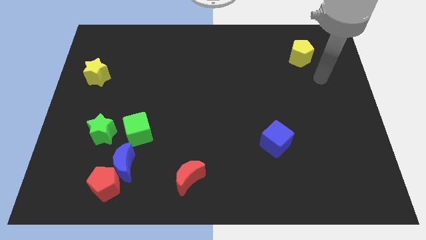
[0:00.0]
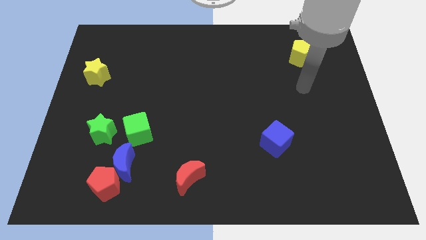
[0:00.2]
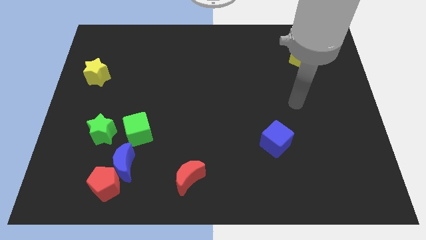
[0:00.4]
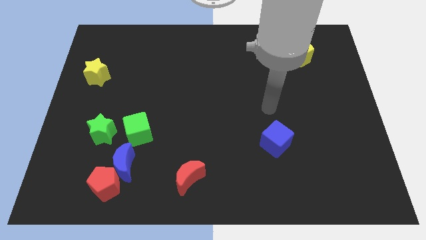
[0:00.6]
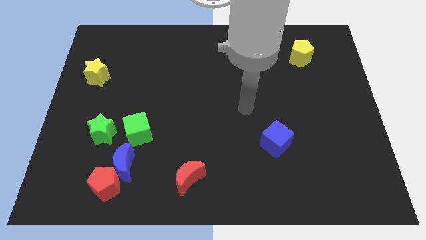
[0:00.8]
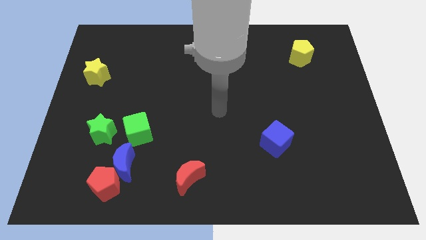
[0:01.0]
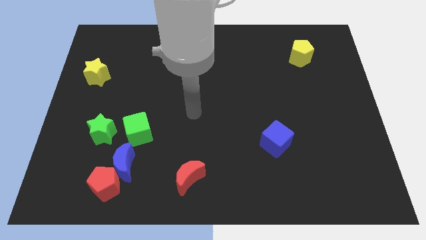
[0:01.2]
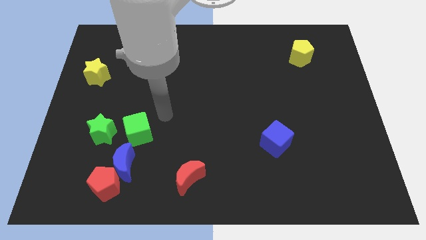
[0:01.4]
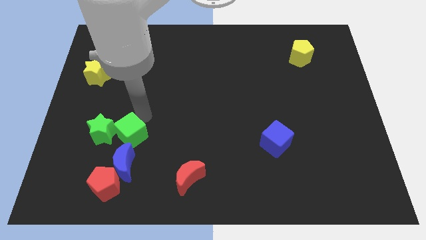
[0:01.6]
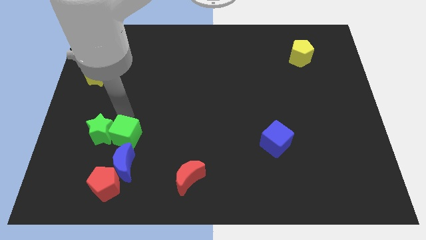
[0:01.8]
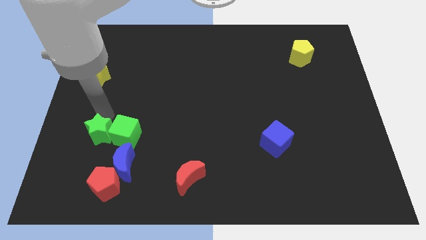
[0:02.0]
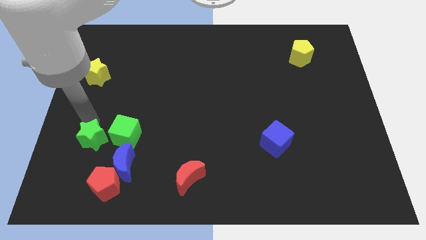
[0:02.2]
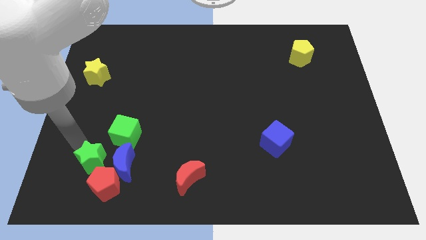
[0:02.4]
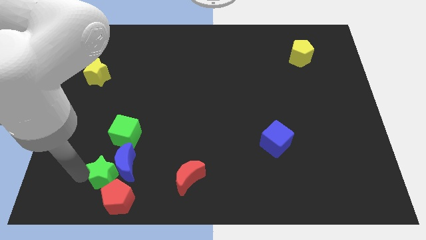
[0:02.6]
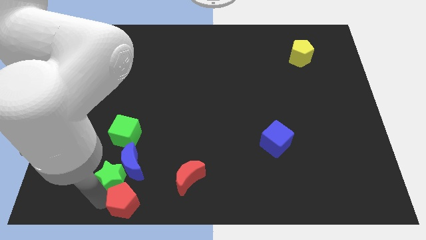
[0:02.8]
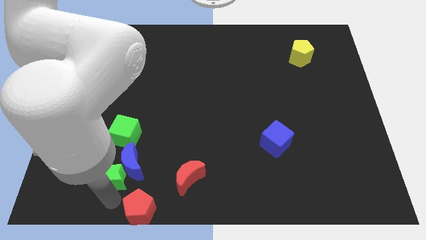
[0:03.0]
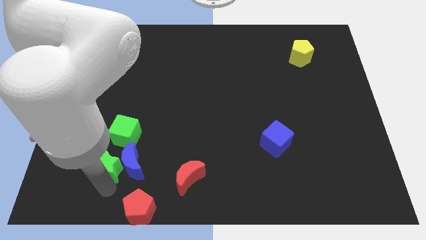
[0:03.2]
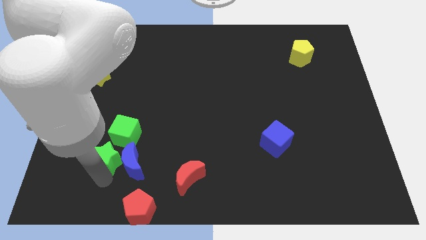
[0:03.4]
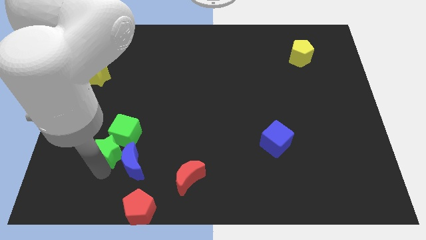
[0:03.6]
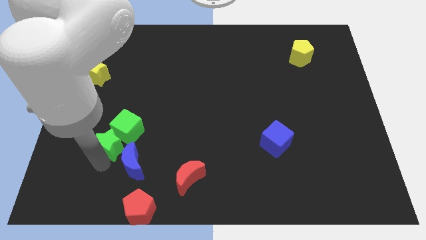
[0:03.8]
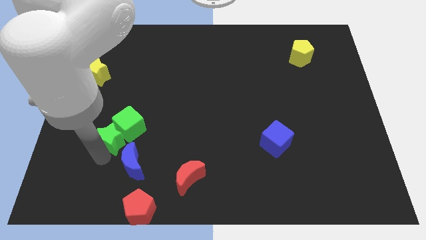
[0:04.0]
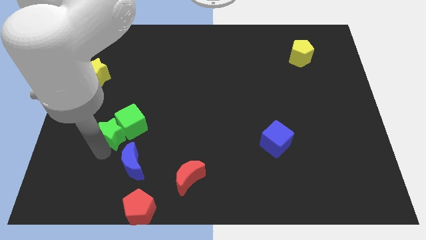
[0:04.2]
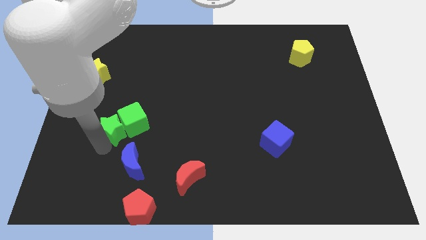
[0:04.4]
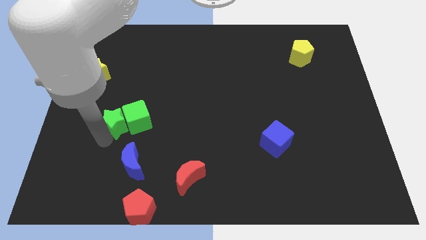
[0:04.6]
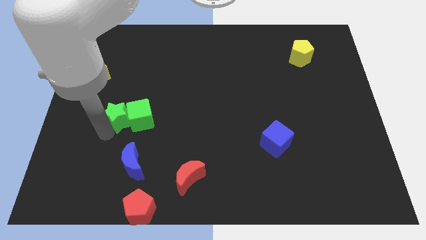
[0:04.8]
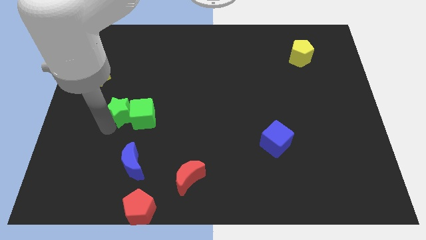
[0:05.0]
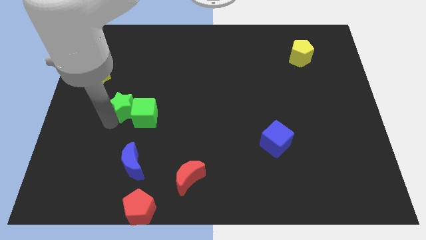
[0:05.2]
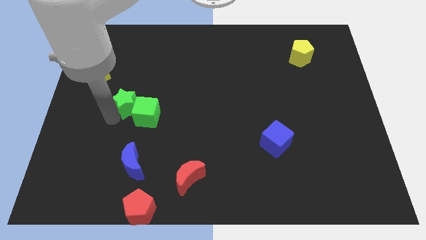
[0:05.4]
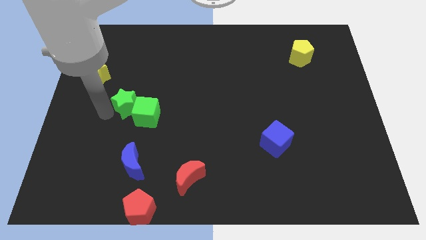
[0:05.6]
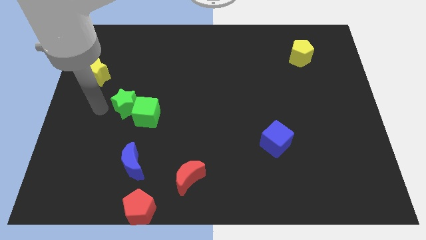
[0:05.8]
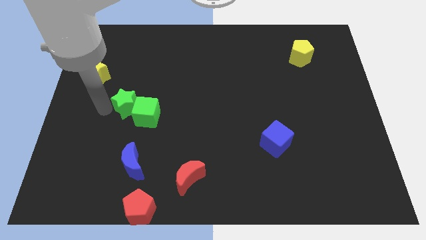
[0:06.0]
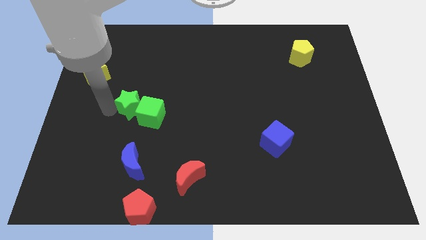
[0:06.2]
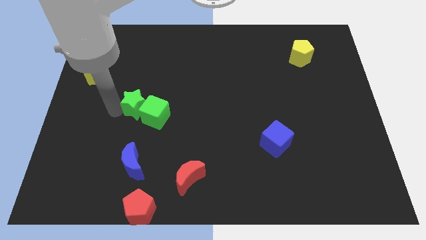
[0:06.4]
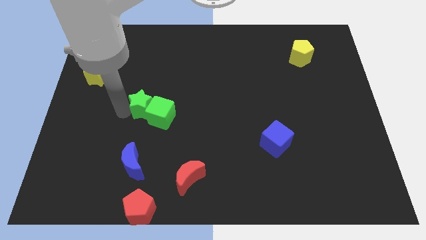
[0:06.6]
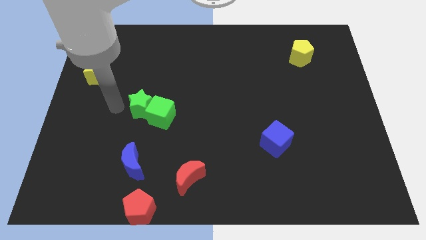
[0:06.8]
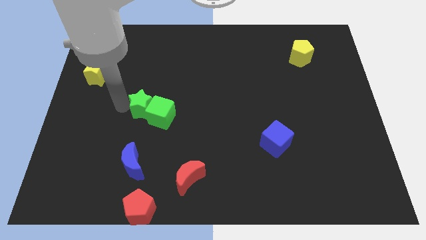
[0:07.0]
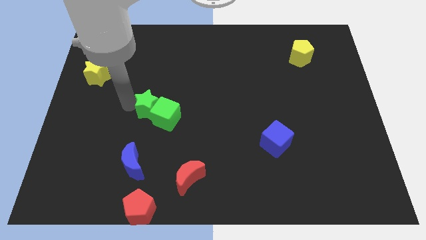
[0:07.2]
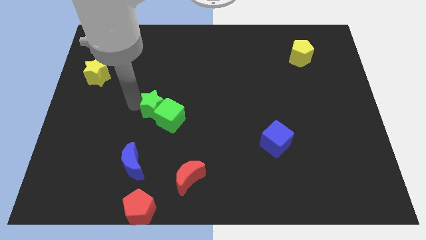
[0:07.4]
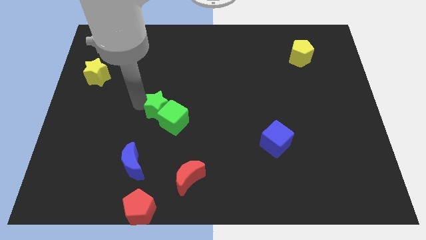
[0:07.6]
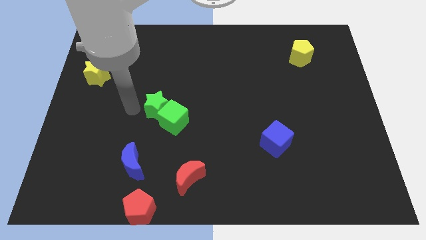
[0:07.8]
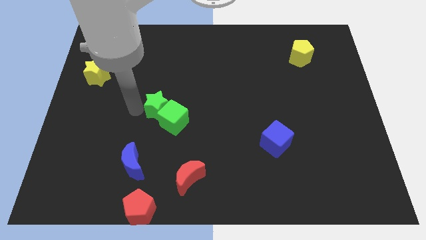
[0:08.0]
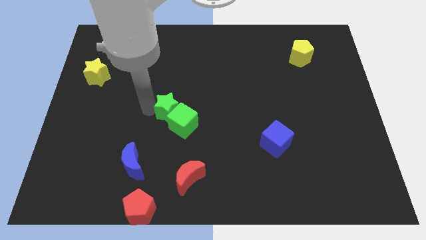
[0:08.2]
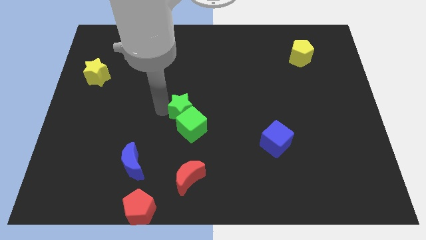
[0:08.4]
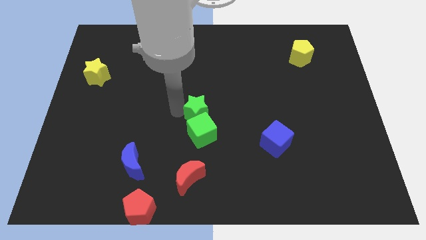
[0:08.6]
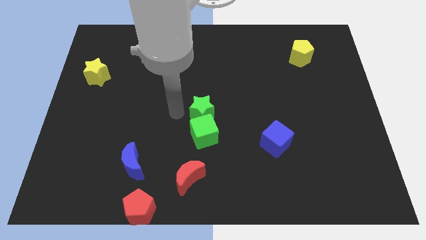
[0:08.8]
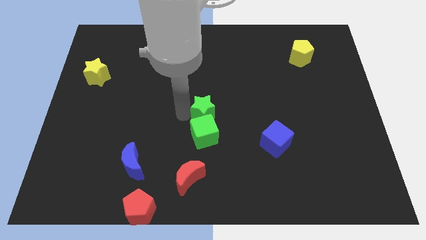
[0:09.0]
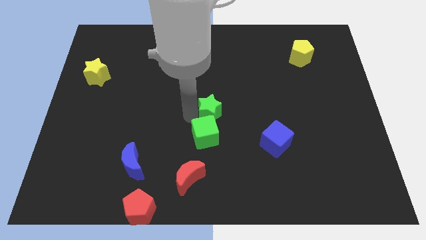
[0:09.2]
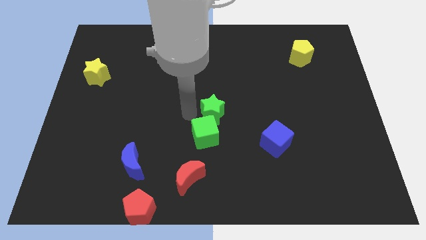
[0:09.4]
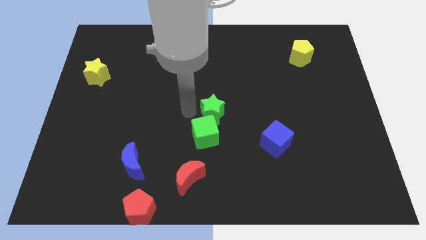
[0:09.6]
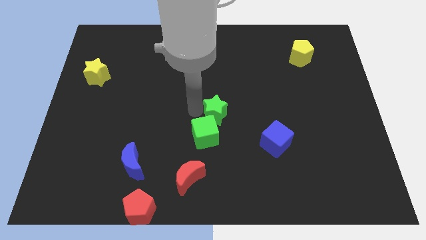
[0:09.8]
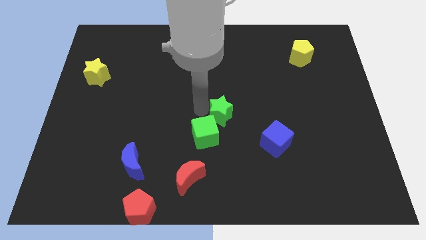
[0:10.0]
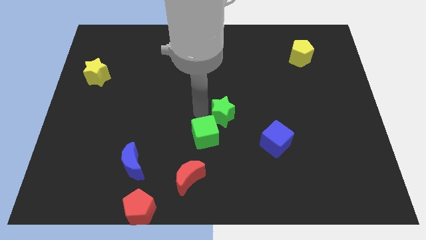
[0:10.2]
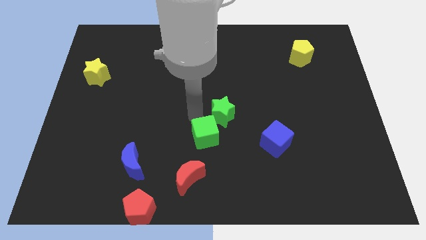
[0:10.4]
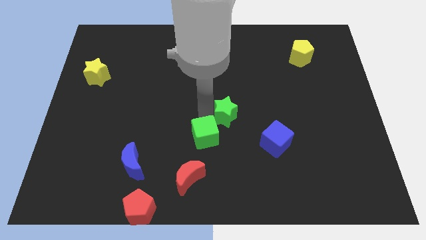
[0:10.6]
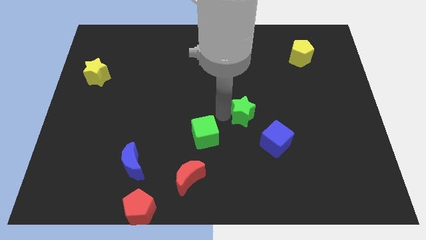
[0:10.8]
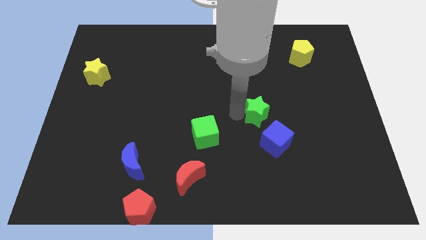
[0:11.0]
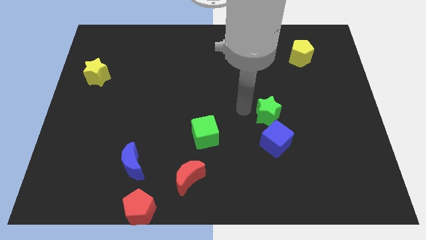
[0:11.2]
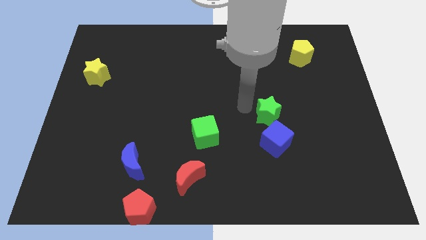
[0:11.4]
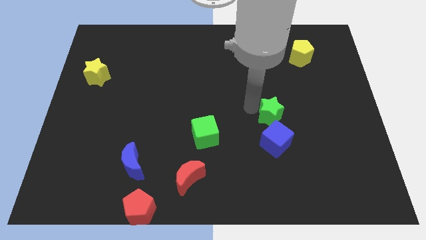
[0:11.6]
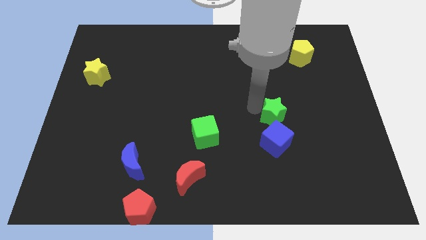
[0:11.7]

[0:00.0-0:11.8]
move the green star diagonally up and to the right of the blue cube

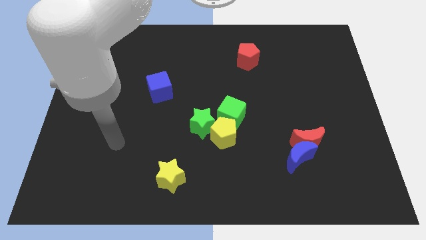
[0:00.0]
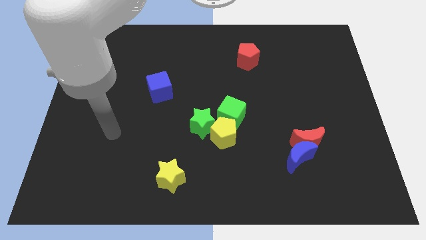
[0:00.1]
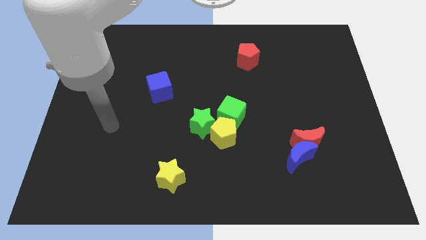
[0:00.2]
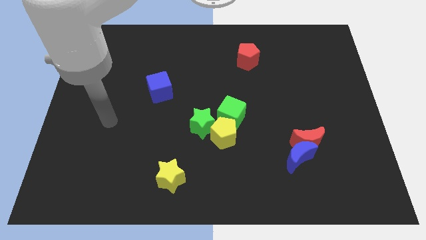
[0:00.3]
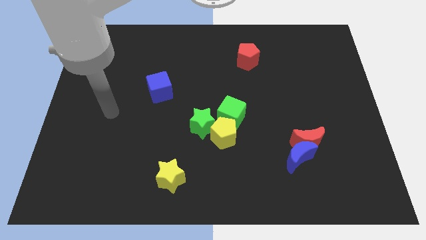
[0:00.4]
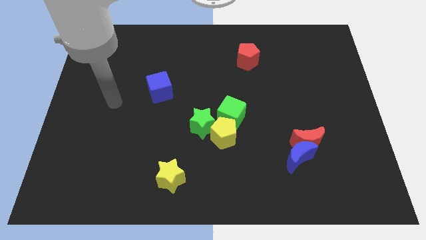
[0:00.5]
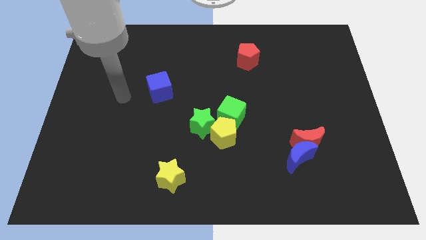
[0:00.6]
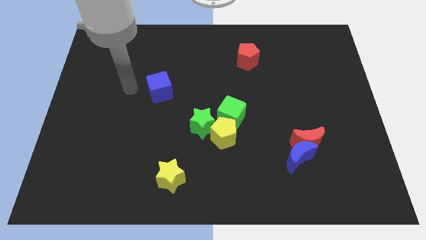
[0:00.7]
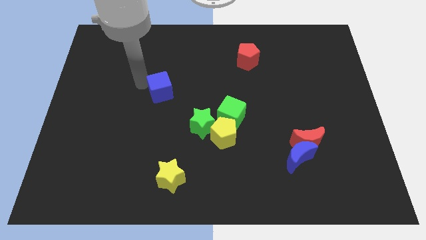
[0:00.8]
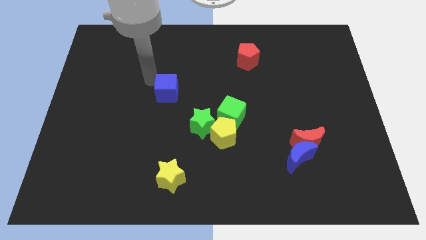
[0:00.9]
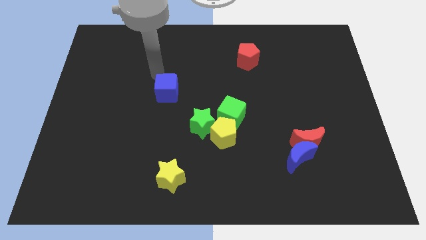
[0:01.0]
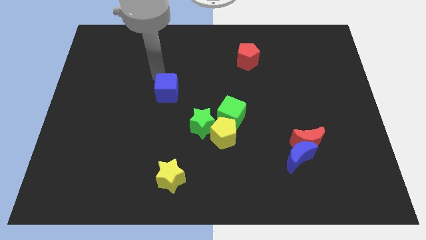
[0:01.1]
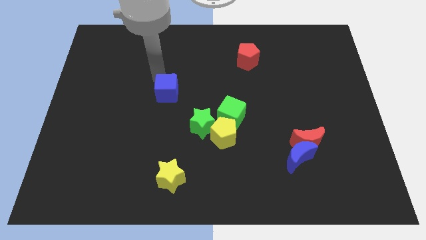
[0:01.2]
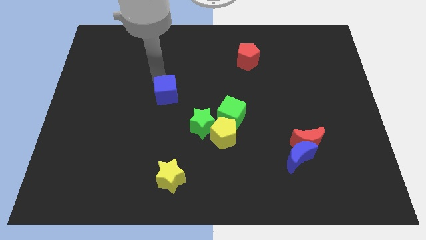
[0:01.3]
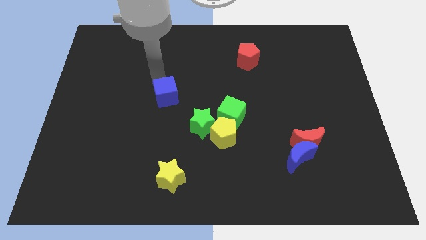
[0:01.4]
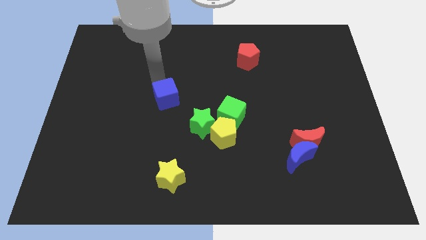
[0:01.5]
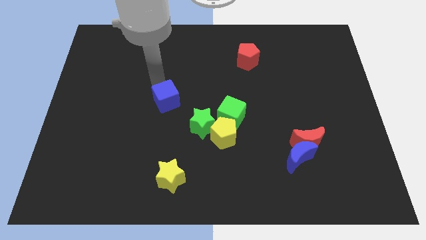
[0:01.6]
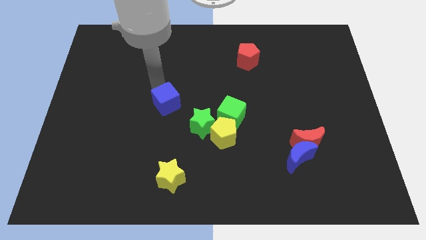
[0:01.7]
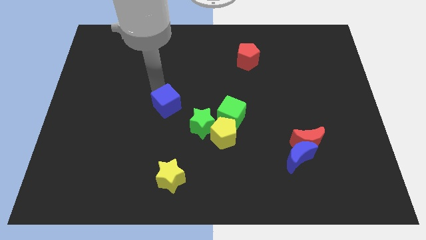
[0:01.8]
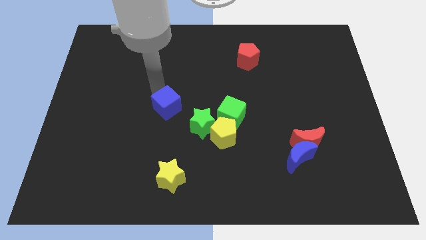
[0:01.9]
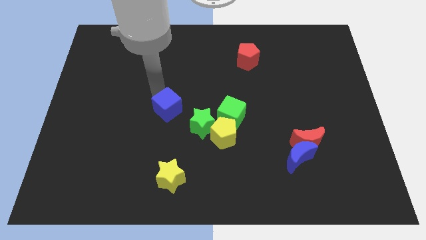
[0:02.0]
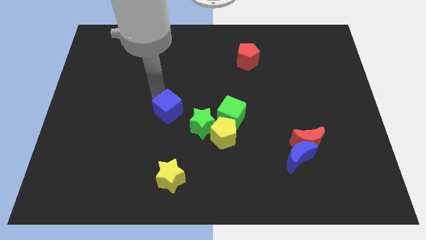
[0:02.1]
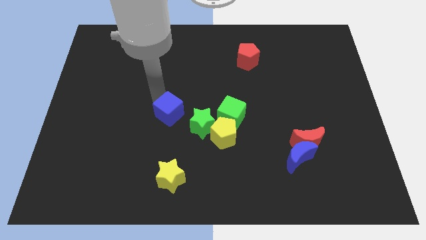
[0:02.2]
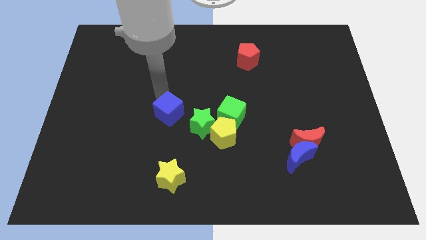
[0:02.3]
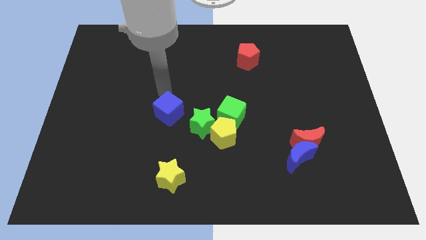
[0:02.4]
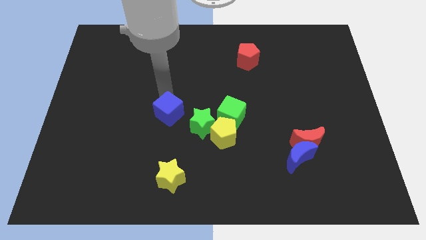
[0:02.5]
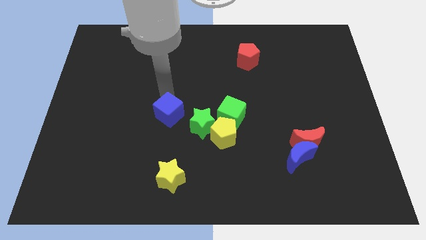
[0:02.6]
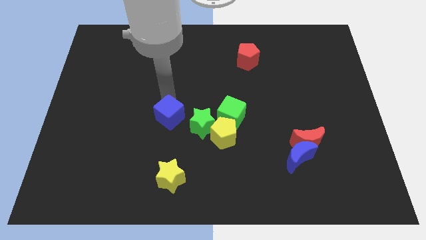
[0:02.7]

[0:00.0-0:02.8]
slide the blue cube to the top side of the yellow star
